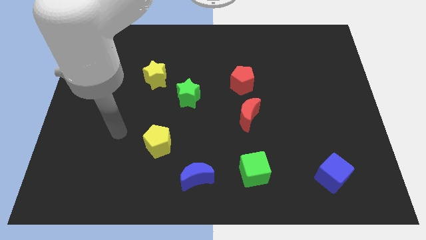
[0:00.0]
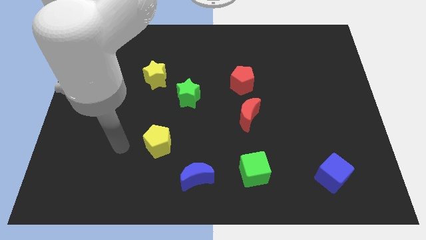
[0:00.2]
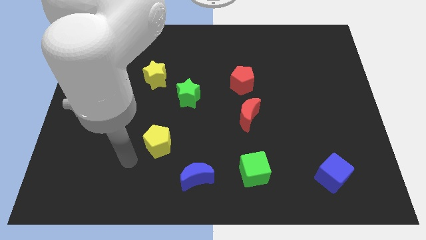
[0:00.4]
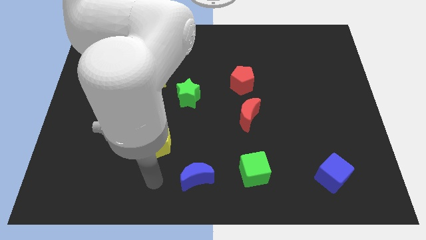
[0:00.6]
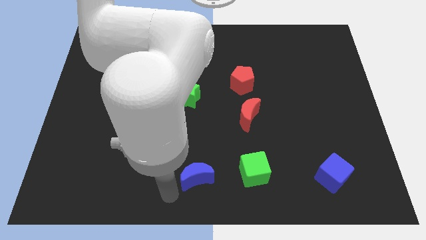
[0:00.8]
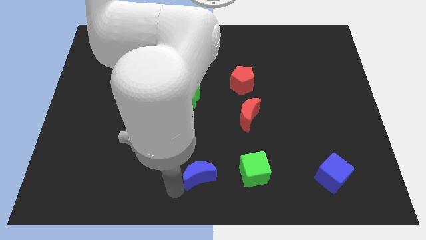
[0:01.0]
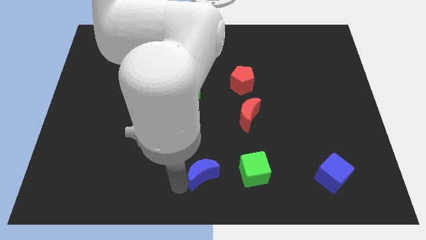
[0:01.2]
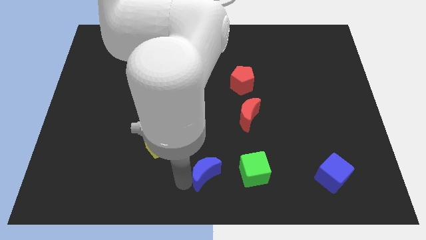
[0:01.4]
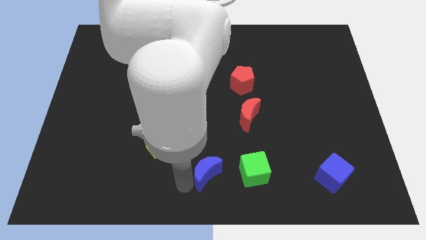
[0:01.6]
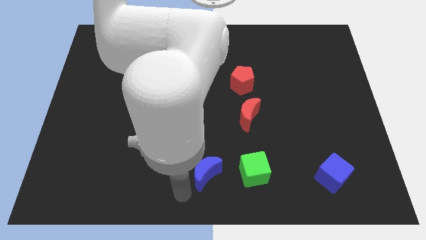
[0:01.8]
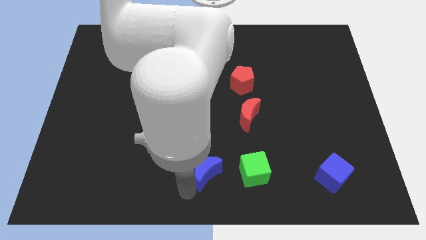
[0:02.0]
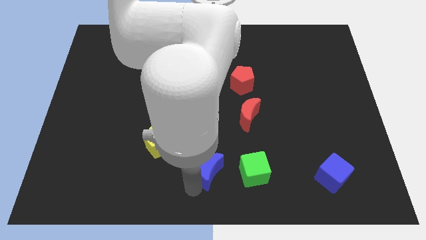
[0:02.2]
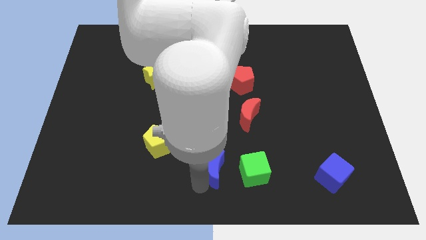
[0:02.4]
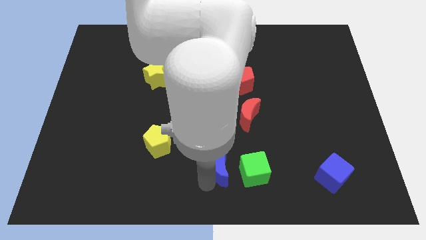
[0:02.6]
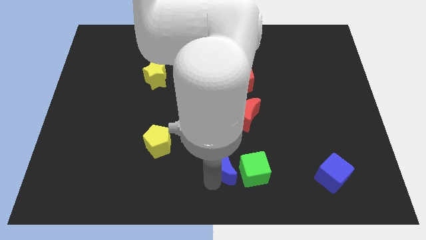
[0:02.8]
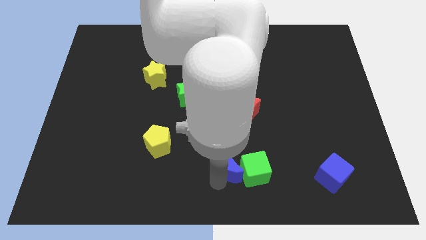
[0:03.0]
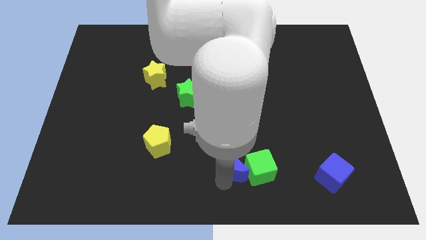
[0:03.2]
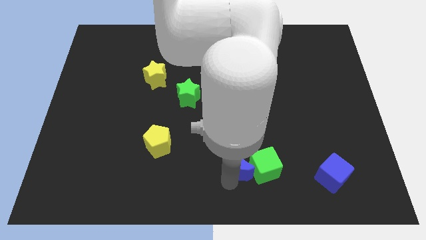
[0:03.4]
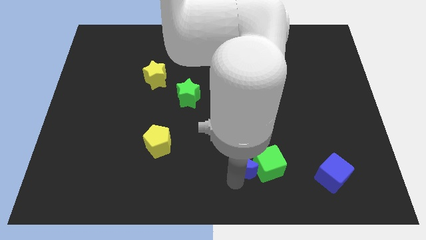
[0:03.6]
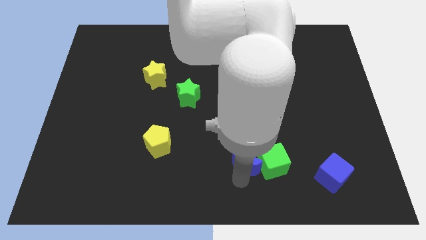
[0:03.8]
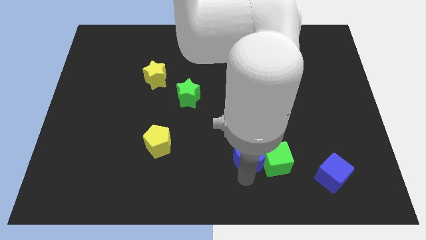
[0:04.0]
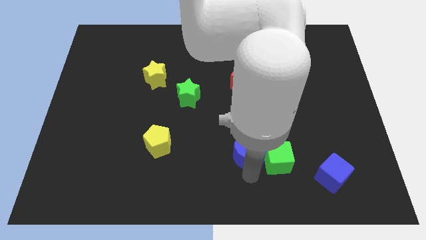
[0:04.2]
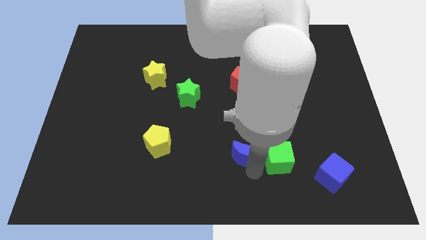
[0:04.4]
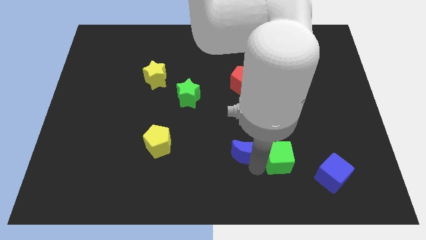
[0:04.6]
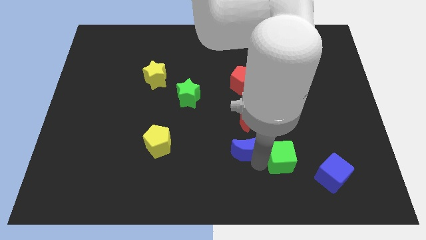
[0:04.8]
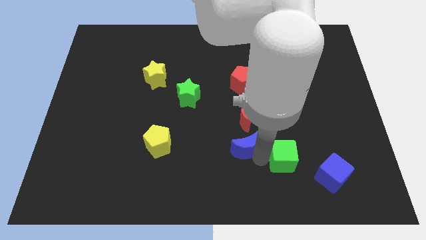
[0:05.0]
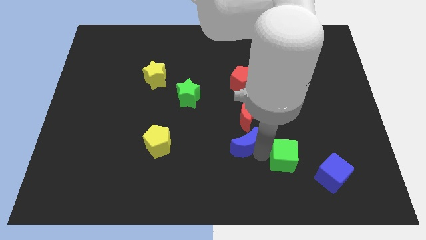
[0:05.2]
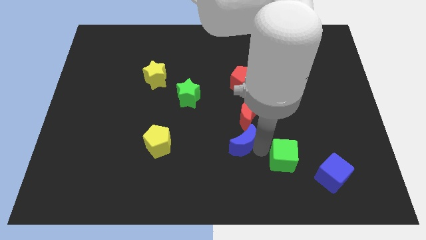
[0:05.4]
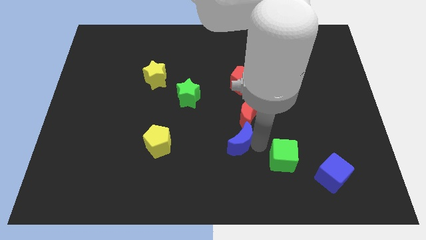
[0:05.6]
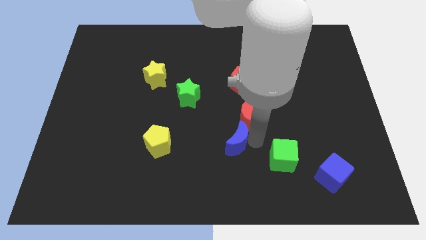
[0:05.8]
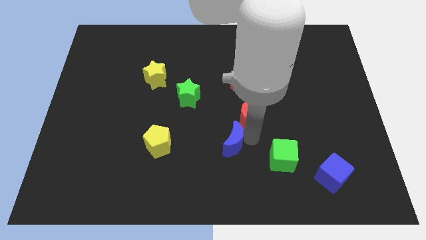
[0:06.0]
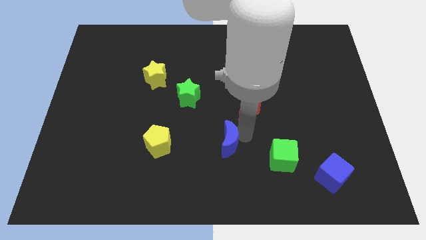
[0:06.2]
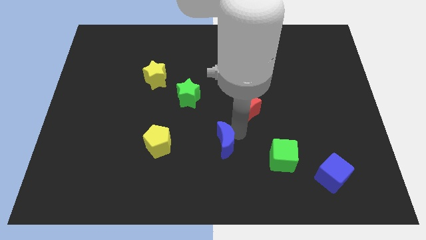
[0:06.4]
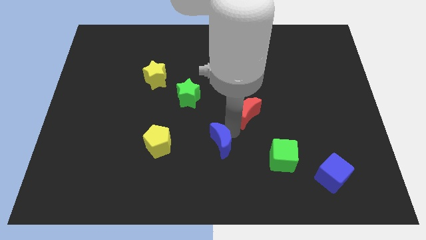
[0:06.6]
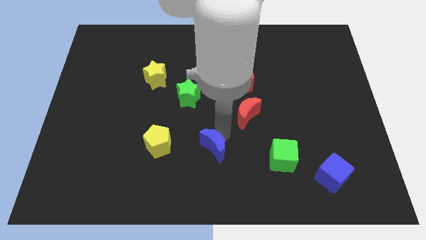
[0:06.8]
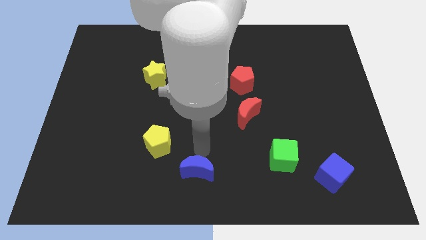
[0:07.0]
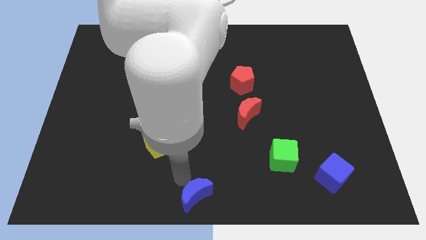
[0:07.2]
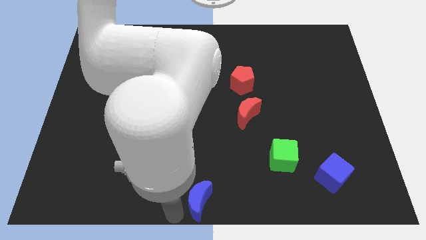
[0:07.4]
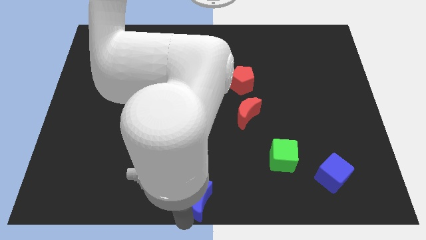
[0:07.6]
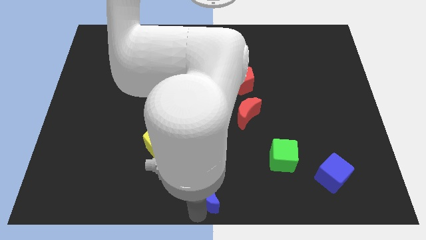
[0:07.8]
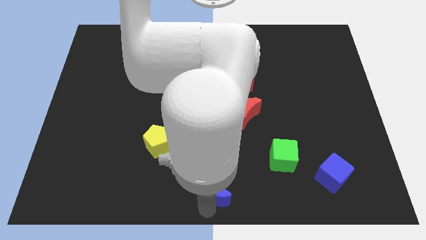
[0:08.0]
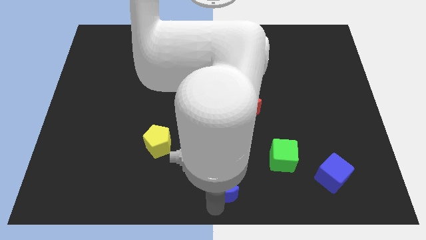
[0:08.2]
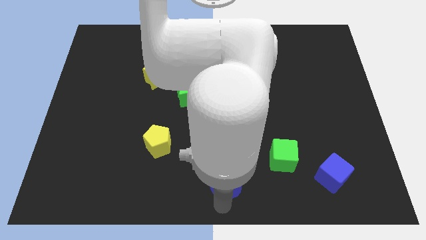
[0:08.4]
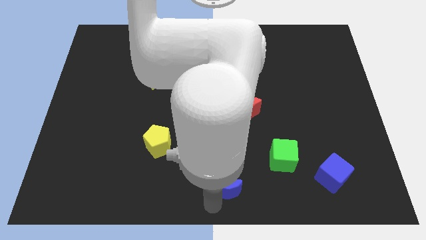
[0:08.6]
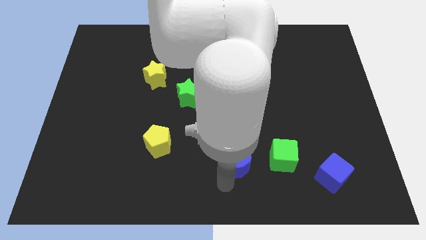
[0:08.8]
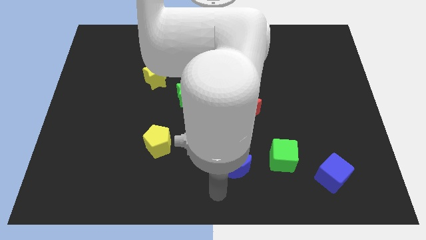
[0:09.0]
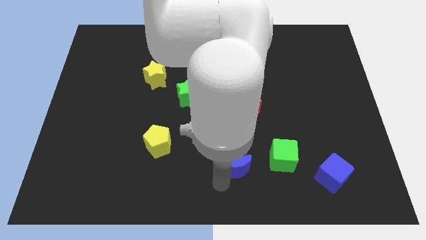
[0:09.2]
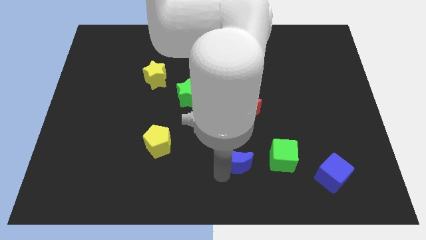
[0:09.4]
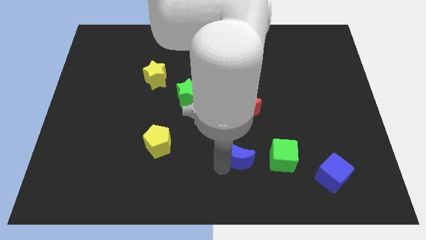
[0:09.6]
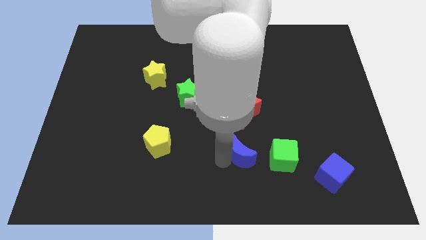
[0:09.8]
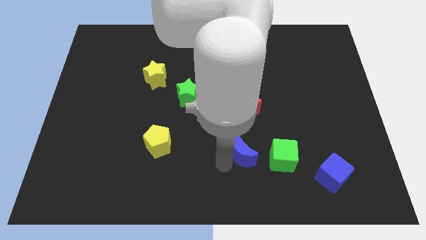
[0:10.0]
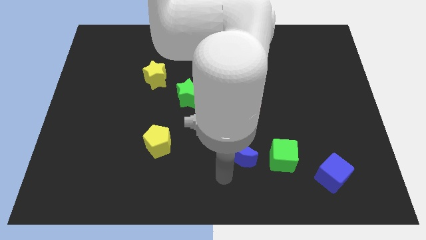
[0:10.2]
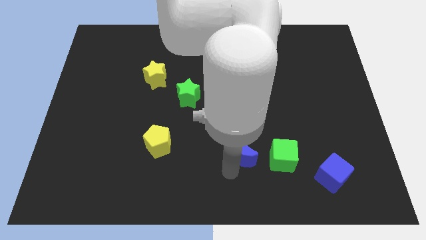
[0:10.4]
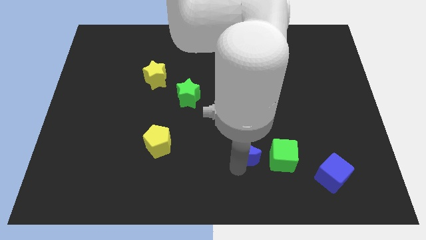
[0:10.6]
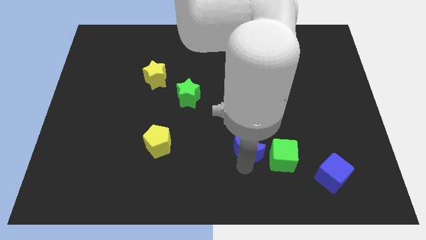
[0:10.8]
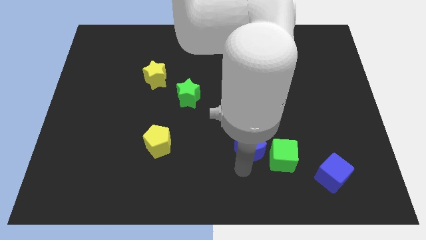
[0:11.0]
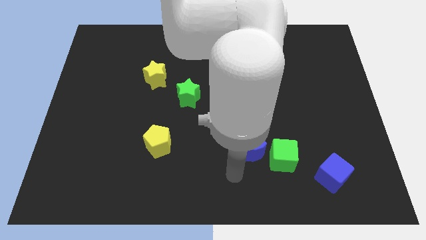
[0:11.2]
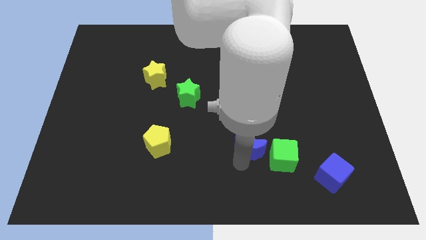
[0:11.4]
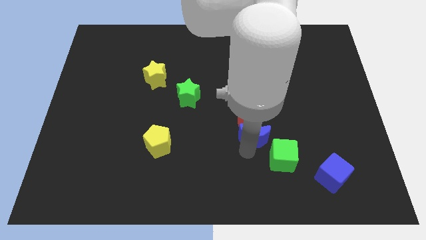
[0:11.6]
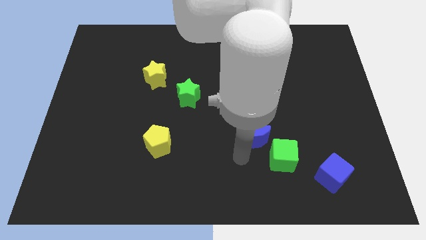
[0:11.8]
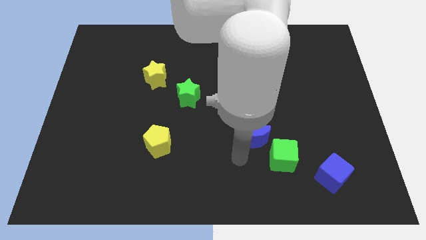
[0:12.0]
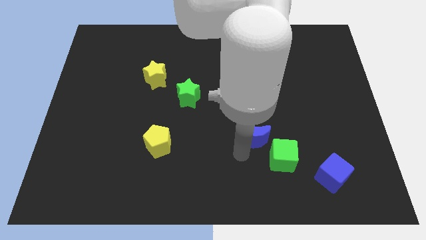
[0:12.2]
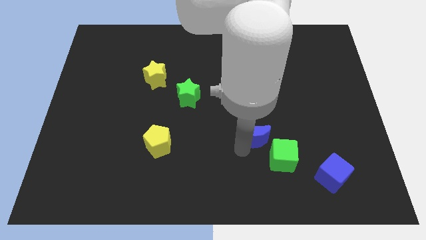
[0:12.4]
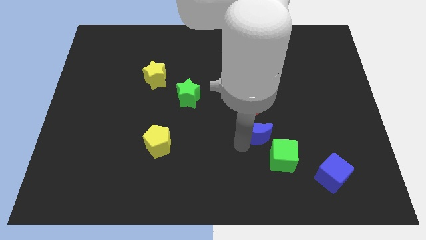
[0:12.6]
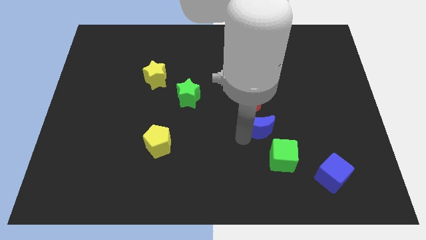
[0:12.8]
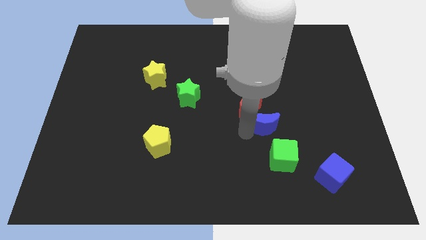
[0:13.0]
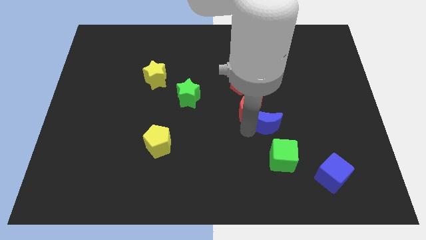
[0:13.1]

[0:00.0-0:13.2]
slide the blue moon upwards and then to the right

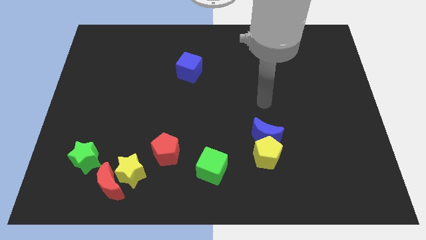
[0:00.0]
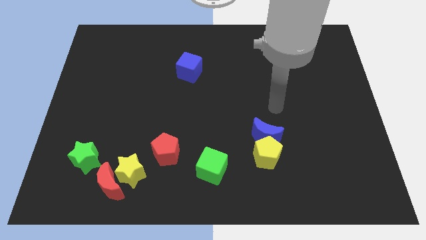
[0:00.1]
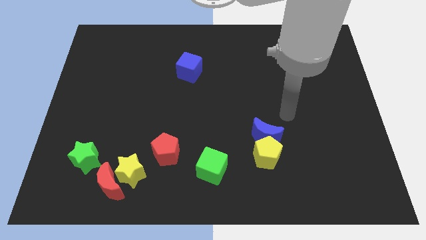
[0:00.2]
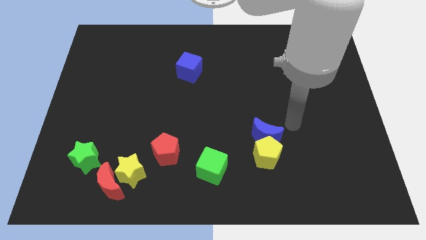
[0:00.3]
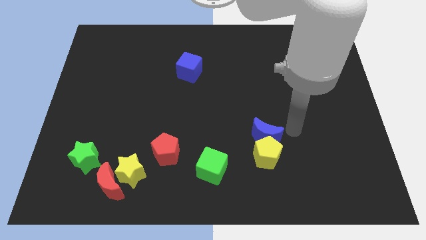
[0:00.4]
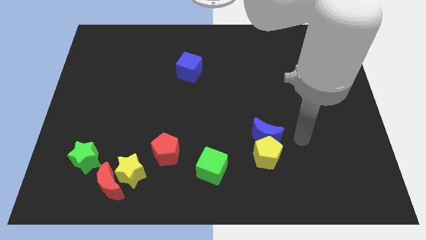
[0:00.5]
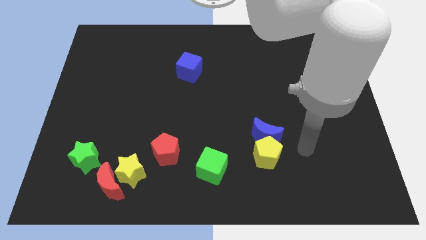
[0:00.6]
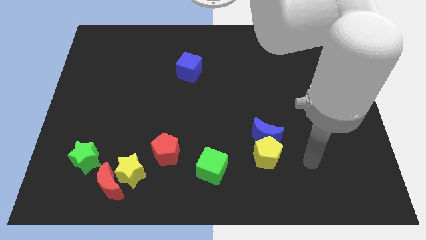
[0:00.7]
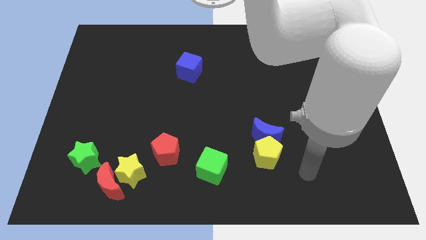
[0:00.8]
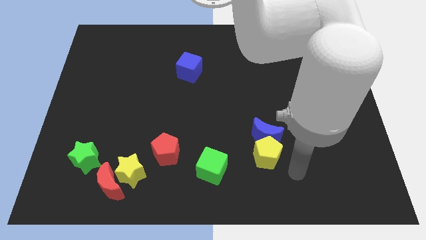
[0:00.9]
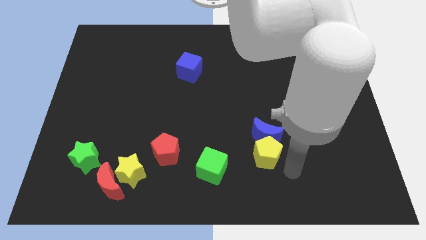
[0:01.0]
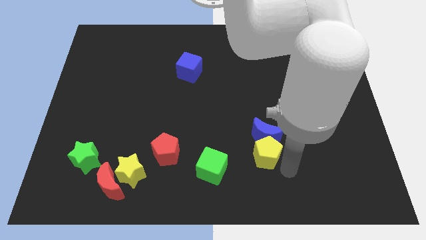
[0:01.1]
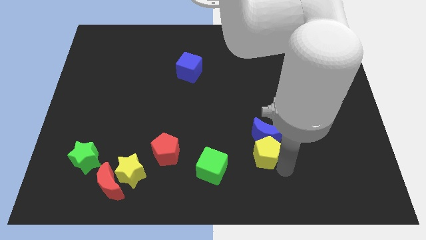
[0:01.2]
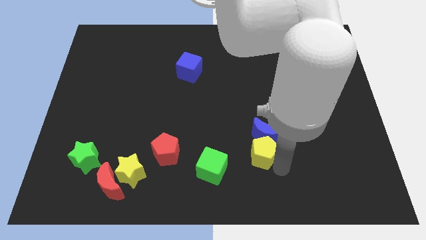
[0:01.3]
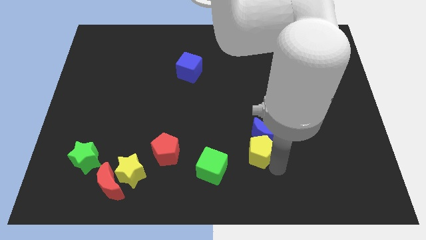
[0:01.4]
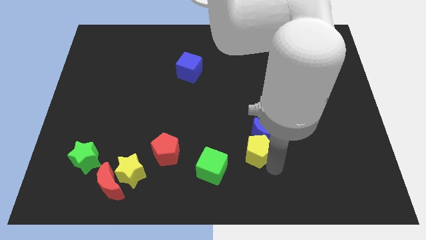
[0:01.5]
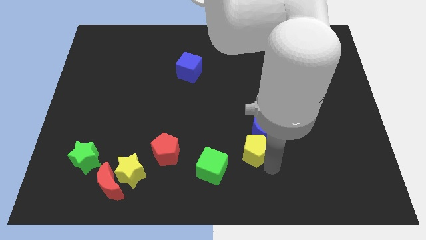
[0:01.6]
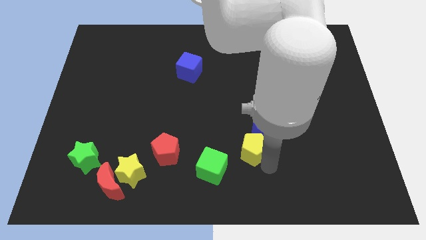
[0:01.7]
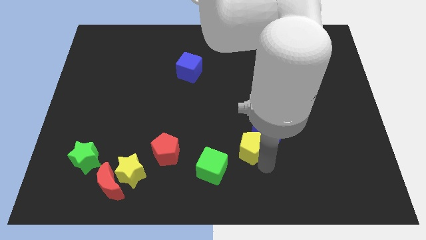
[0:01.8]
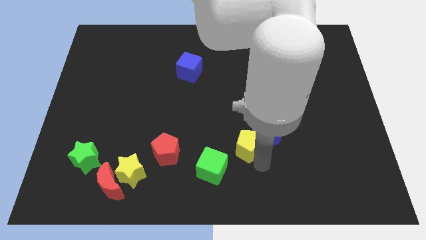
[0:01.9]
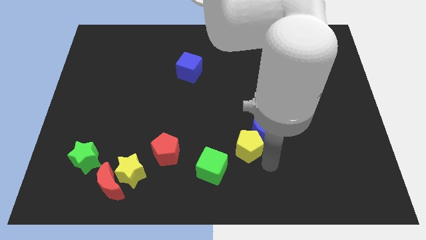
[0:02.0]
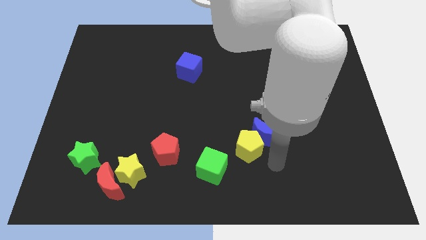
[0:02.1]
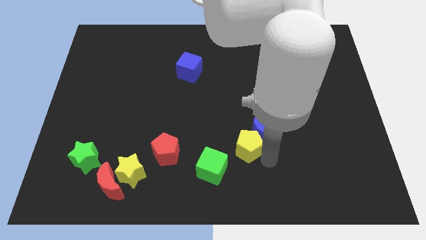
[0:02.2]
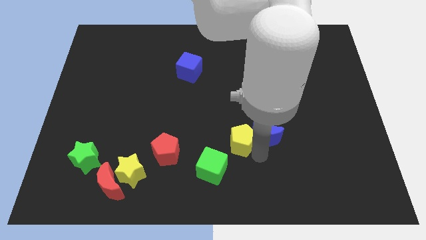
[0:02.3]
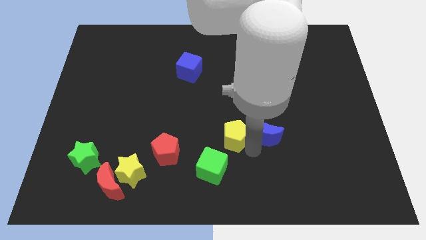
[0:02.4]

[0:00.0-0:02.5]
slide the yellow pentagon somewhat diagonally upwards and left
